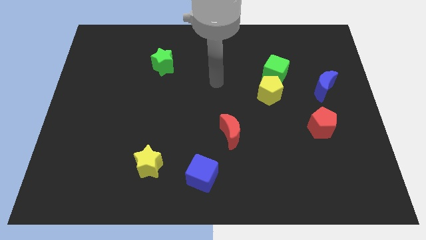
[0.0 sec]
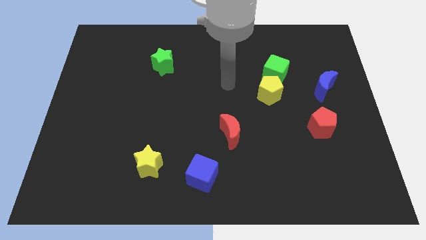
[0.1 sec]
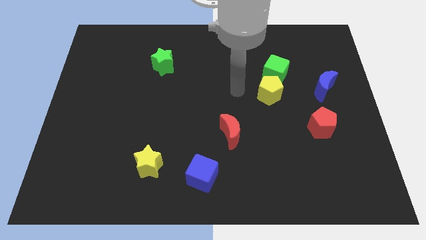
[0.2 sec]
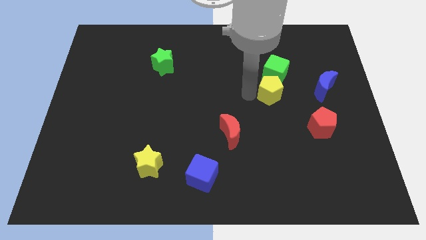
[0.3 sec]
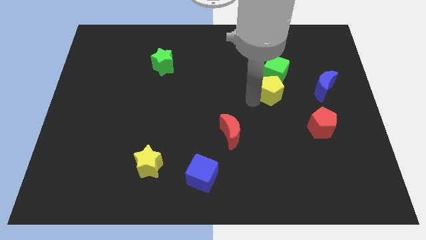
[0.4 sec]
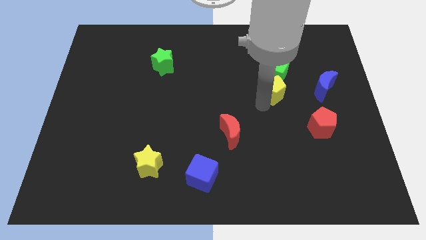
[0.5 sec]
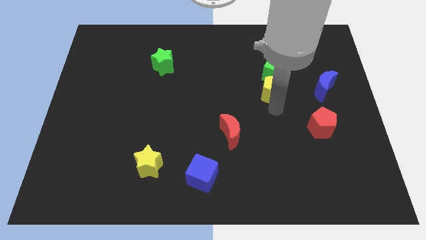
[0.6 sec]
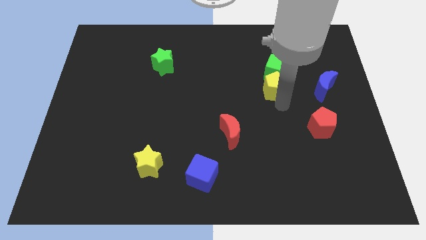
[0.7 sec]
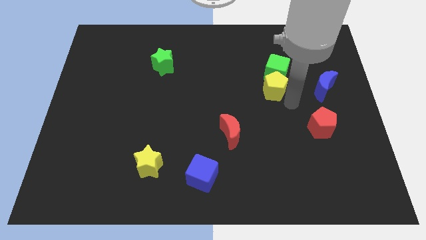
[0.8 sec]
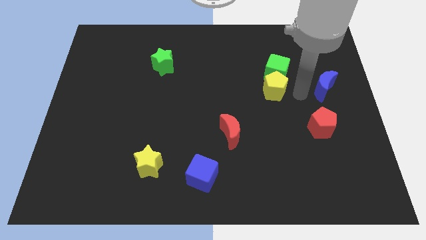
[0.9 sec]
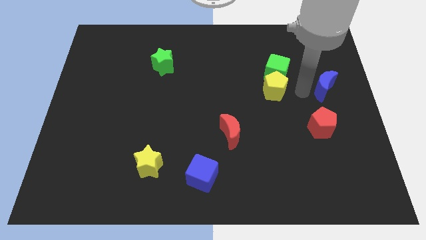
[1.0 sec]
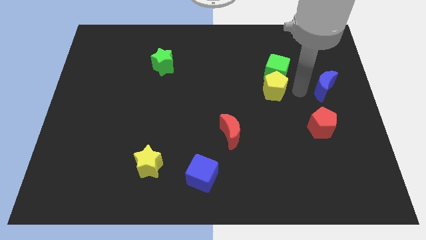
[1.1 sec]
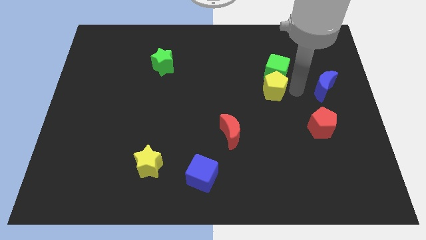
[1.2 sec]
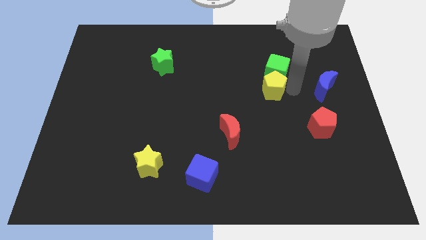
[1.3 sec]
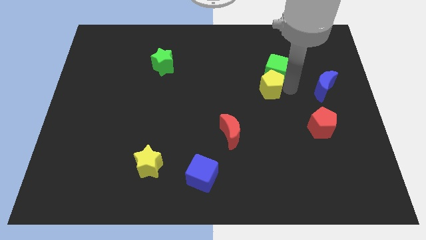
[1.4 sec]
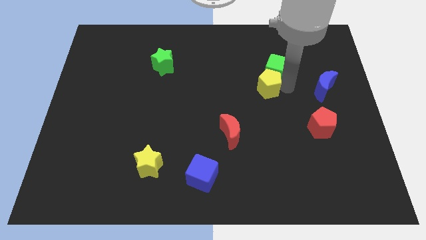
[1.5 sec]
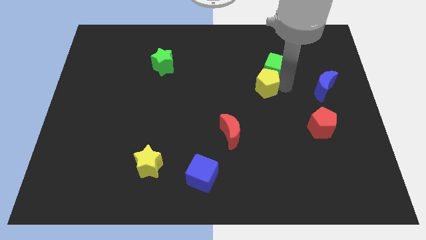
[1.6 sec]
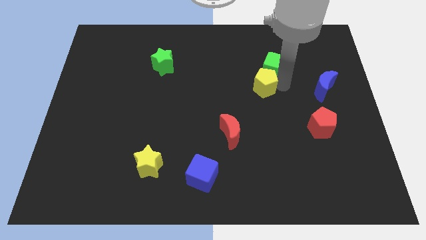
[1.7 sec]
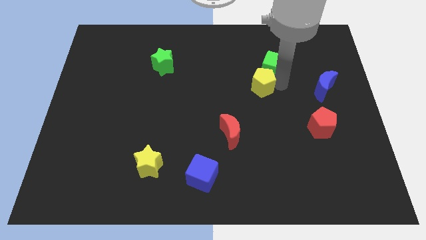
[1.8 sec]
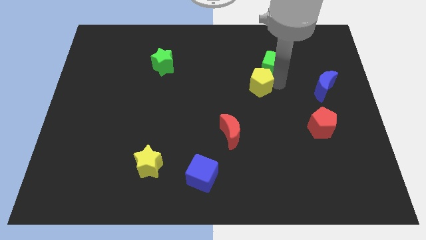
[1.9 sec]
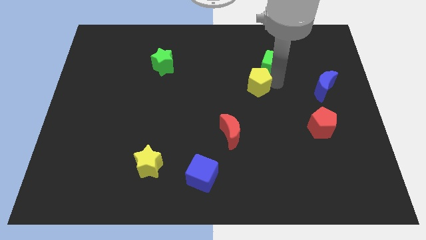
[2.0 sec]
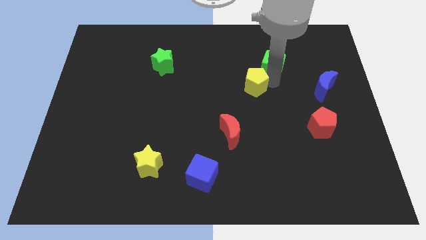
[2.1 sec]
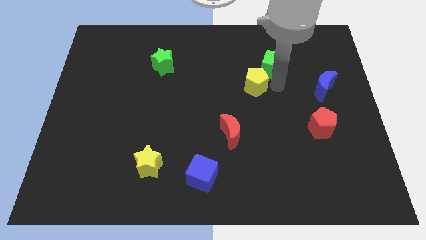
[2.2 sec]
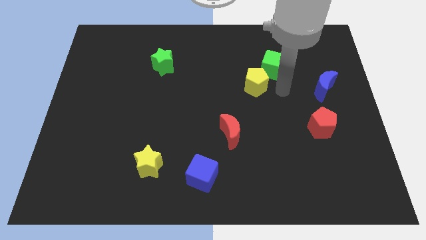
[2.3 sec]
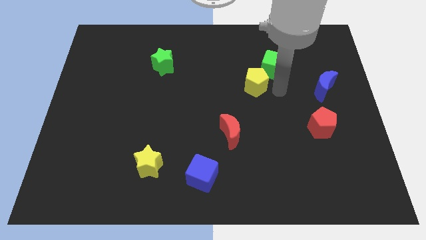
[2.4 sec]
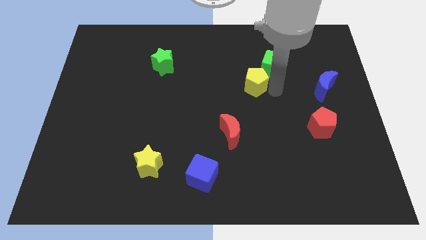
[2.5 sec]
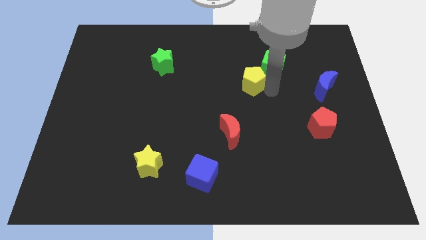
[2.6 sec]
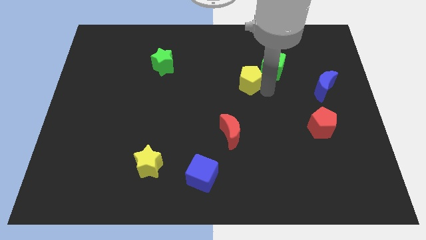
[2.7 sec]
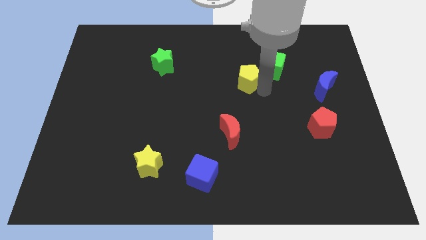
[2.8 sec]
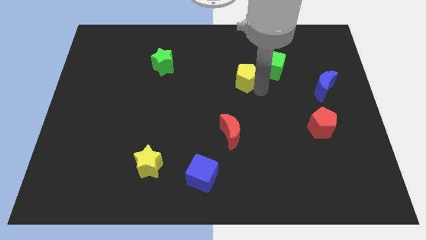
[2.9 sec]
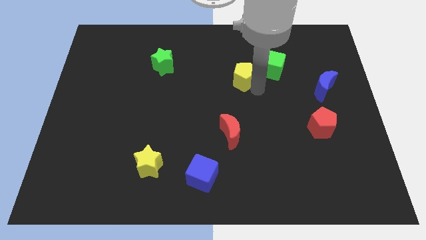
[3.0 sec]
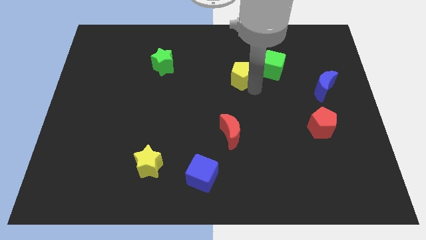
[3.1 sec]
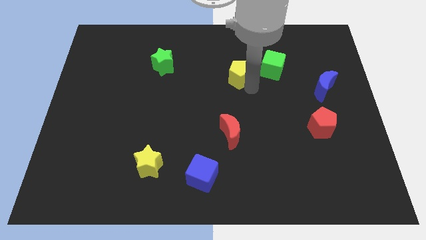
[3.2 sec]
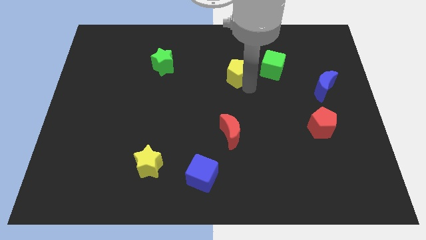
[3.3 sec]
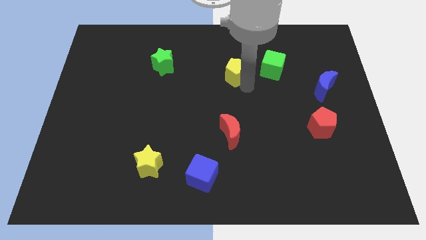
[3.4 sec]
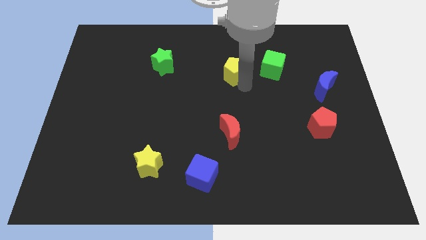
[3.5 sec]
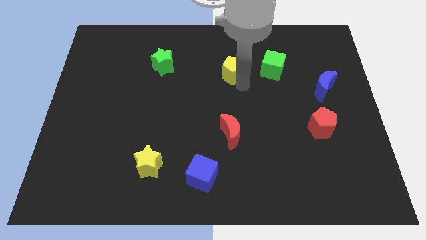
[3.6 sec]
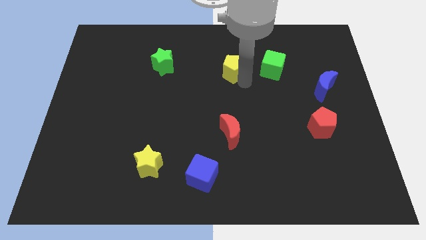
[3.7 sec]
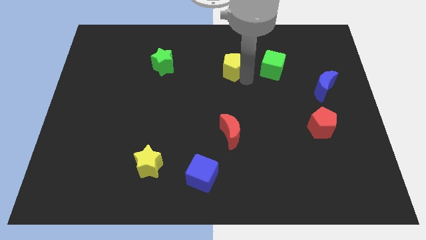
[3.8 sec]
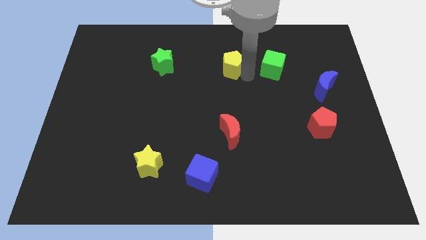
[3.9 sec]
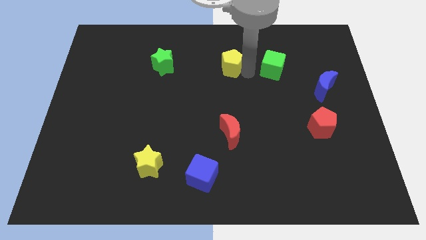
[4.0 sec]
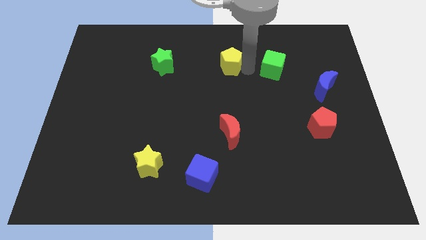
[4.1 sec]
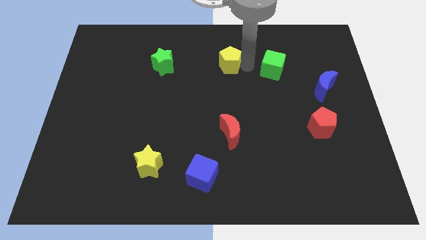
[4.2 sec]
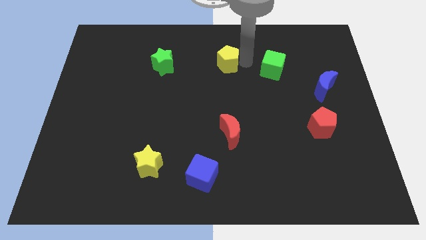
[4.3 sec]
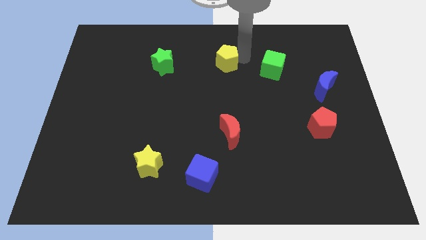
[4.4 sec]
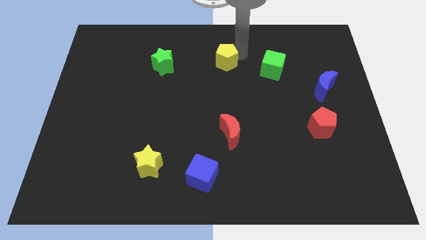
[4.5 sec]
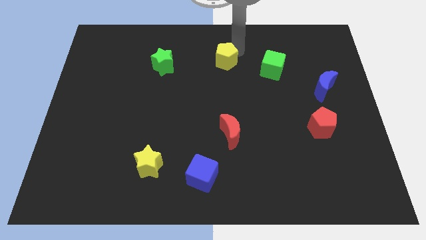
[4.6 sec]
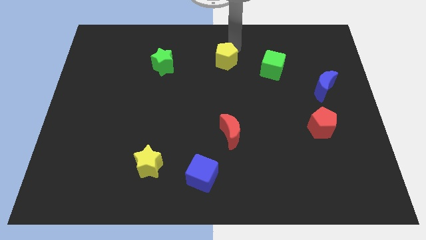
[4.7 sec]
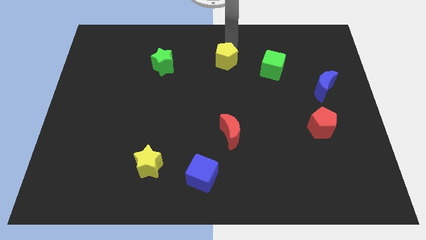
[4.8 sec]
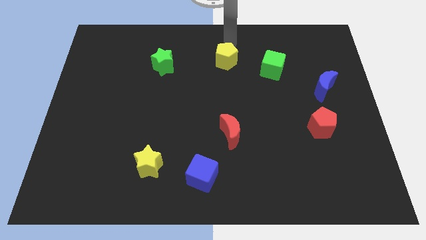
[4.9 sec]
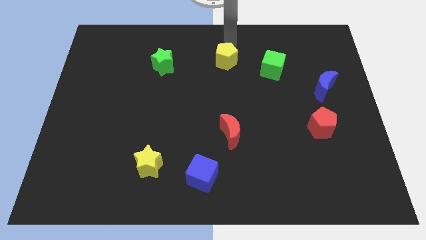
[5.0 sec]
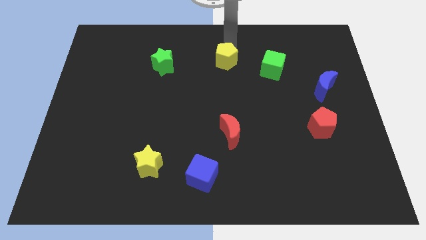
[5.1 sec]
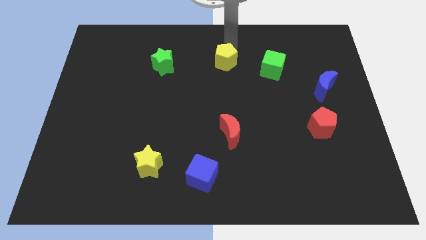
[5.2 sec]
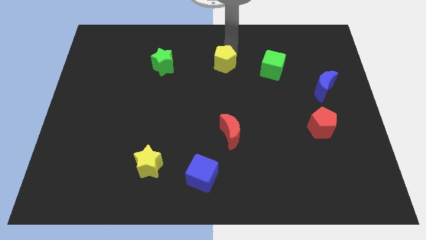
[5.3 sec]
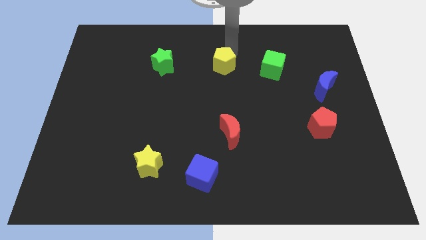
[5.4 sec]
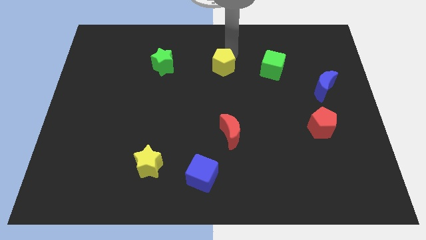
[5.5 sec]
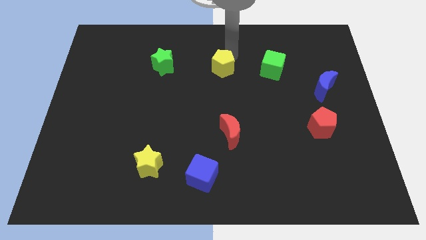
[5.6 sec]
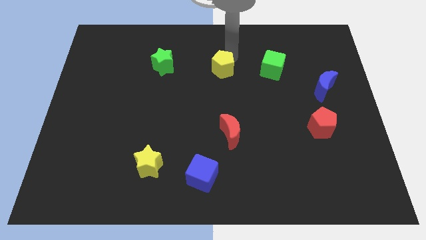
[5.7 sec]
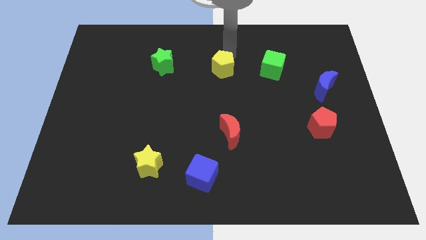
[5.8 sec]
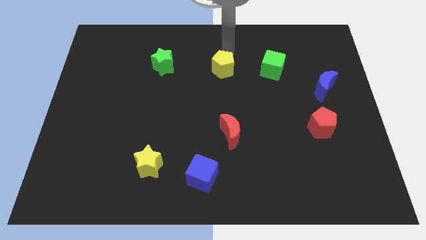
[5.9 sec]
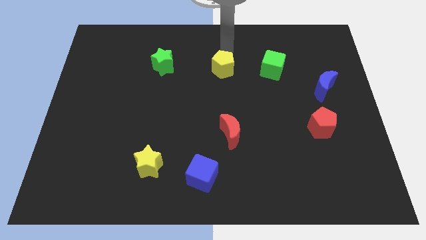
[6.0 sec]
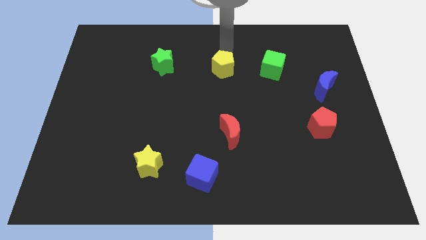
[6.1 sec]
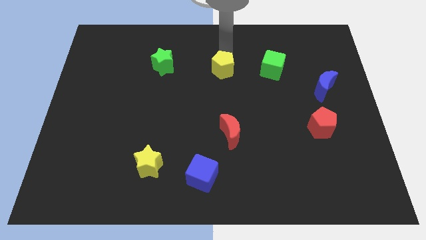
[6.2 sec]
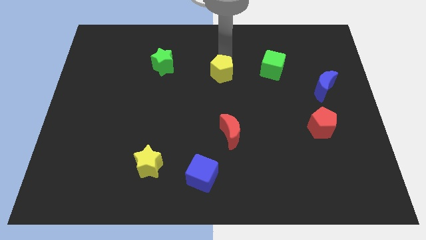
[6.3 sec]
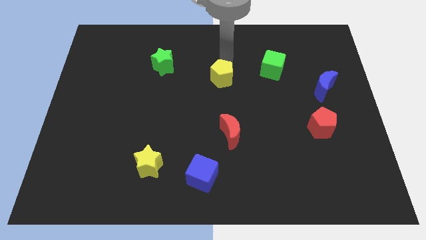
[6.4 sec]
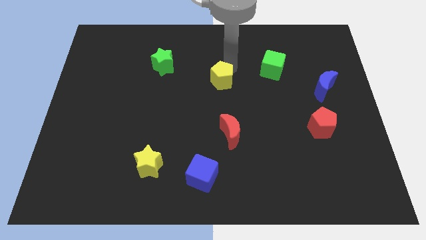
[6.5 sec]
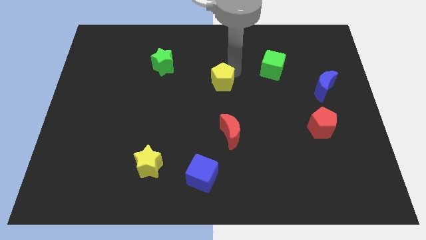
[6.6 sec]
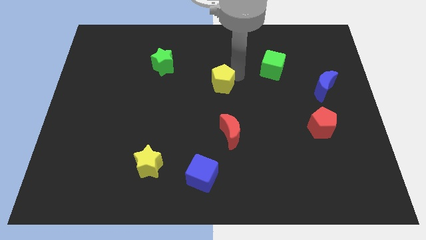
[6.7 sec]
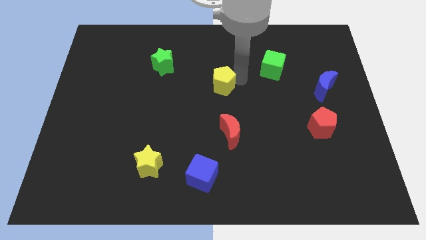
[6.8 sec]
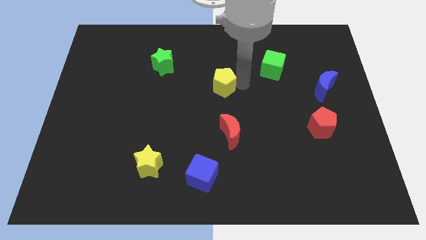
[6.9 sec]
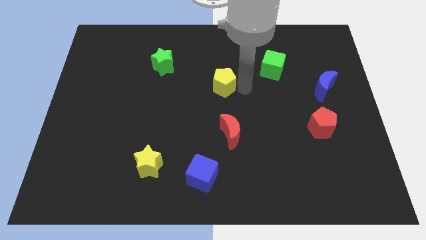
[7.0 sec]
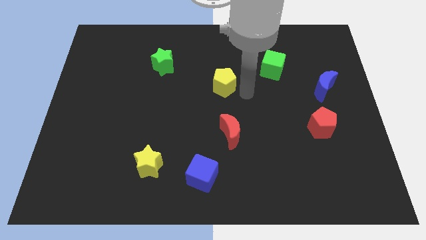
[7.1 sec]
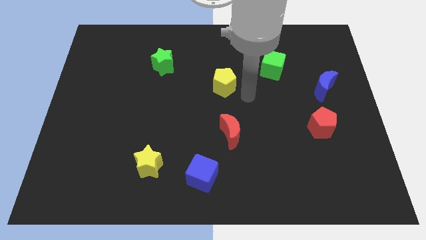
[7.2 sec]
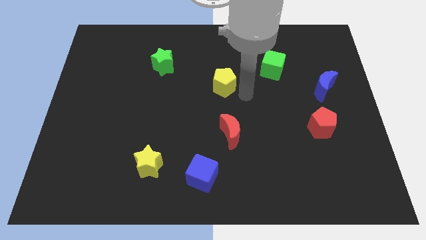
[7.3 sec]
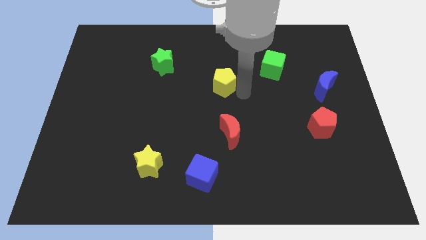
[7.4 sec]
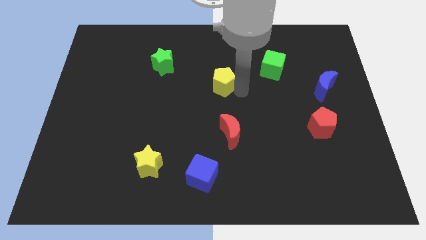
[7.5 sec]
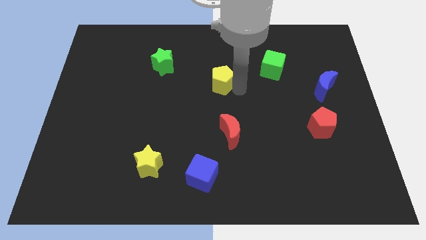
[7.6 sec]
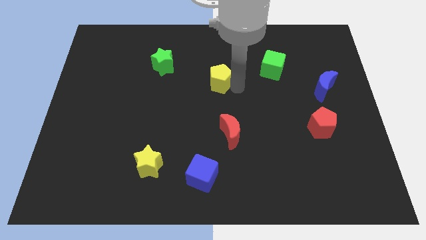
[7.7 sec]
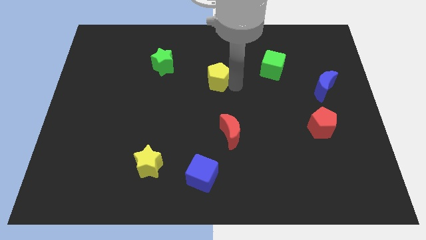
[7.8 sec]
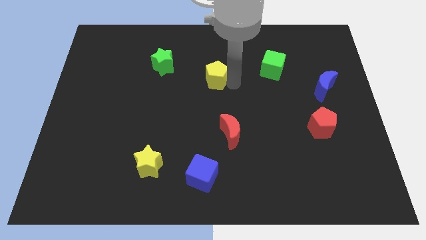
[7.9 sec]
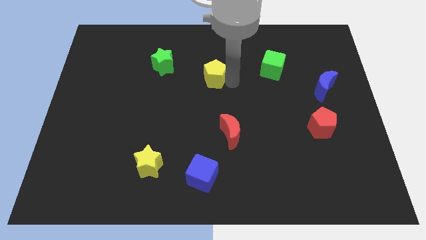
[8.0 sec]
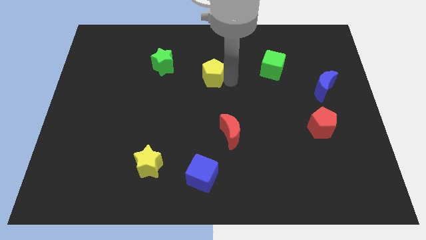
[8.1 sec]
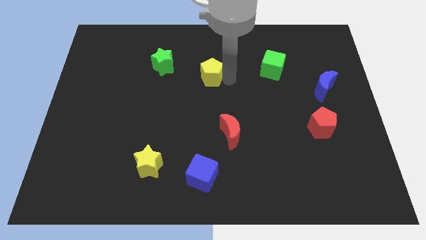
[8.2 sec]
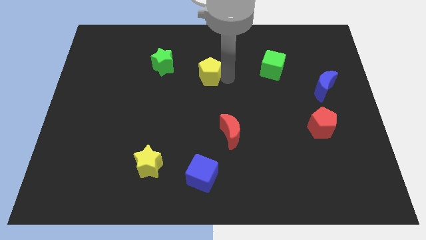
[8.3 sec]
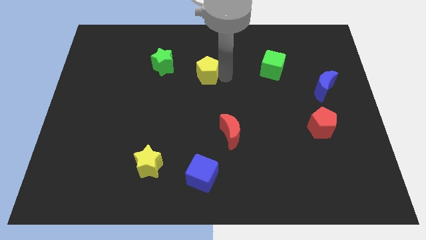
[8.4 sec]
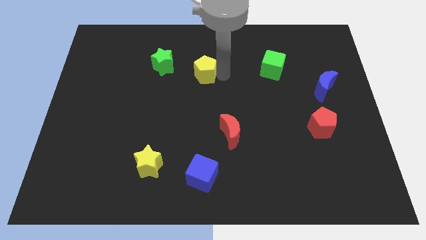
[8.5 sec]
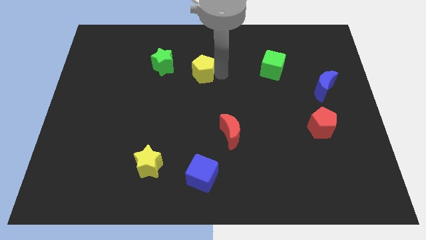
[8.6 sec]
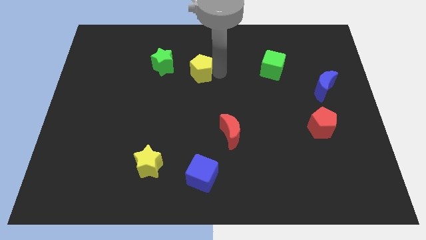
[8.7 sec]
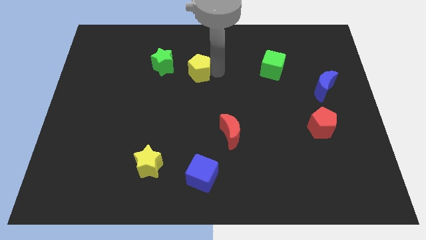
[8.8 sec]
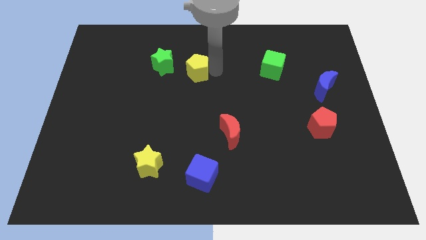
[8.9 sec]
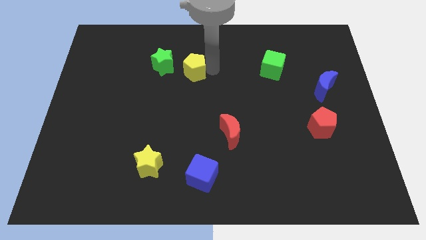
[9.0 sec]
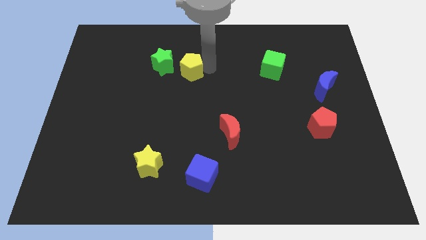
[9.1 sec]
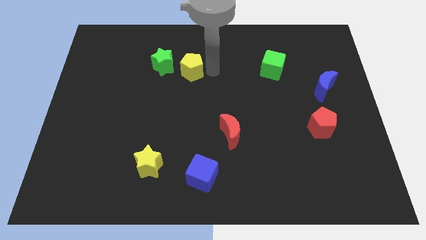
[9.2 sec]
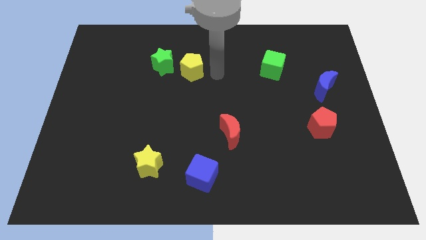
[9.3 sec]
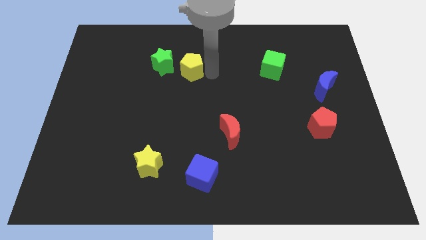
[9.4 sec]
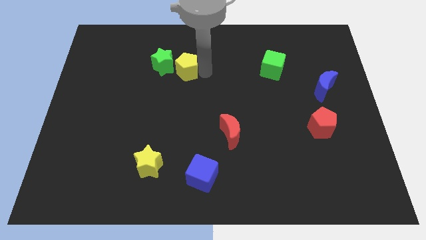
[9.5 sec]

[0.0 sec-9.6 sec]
slide the yellow pentagon next to the green star
